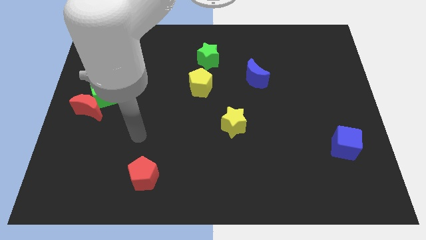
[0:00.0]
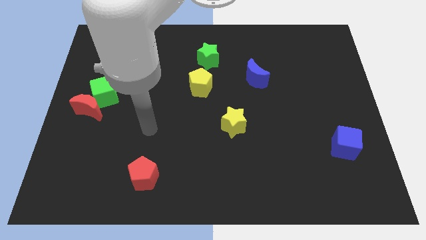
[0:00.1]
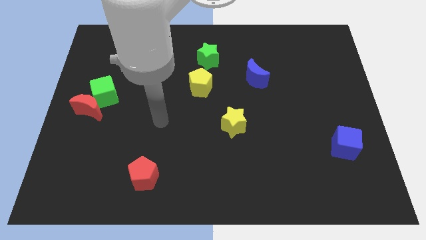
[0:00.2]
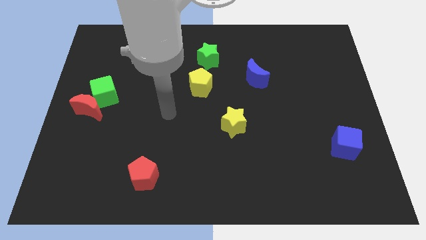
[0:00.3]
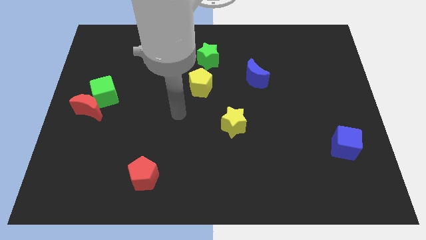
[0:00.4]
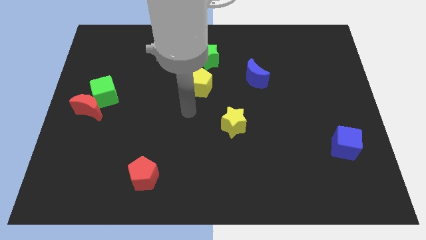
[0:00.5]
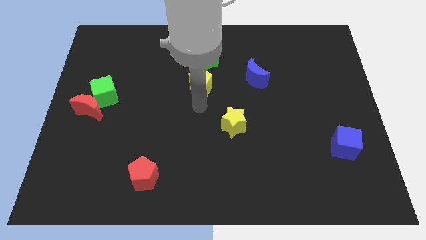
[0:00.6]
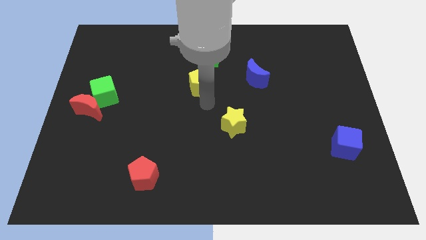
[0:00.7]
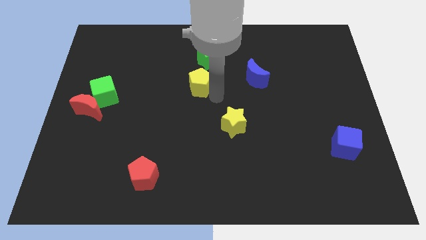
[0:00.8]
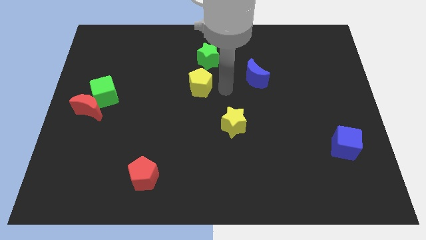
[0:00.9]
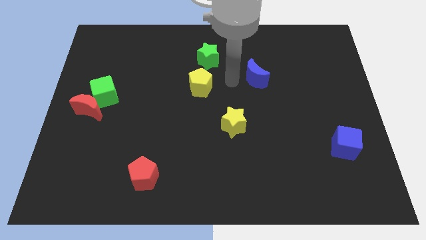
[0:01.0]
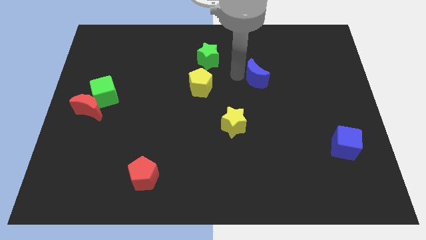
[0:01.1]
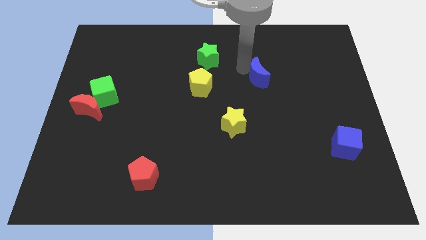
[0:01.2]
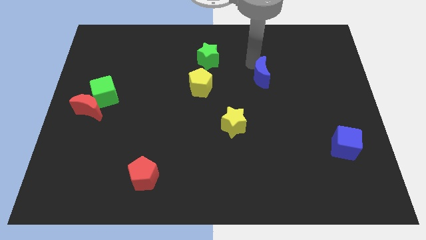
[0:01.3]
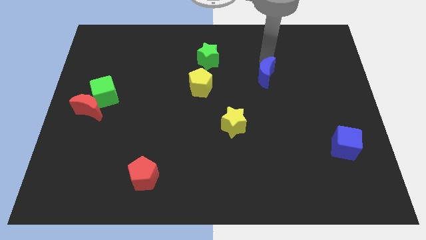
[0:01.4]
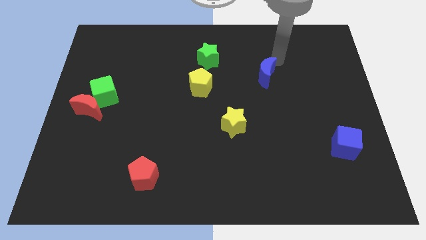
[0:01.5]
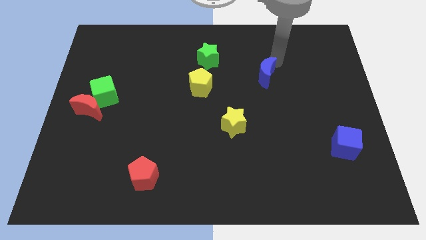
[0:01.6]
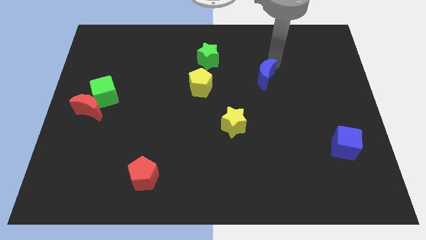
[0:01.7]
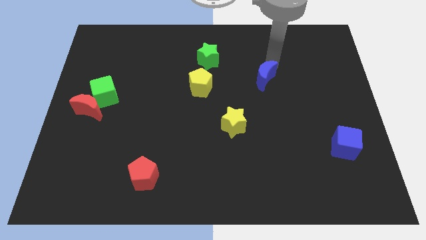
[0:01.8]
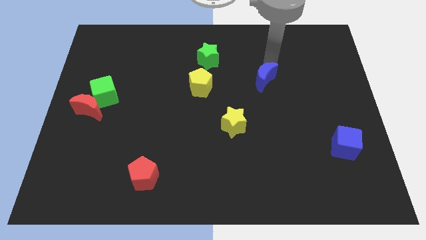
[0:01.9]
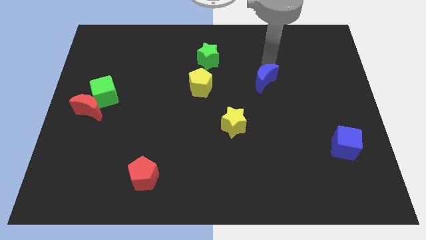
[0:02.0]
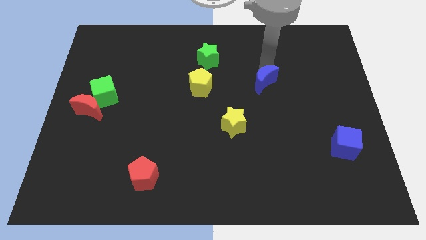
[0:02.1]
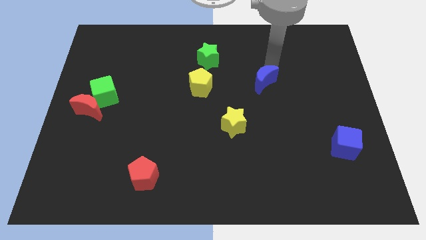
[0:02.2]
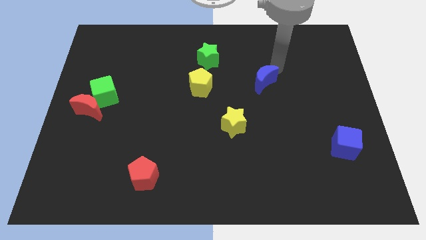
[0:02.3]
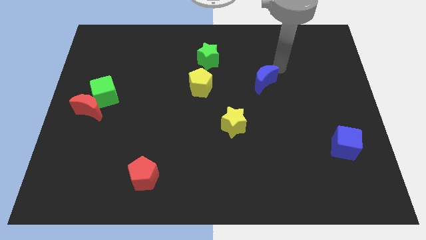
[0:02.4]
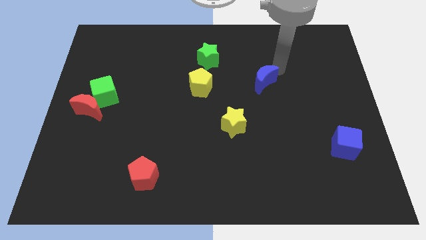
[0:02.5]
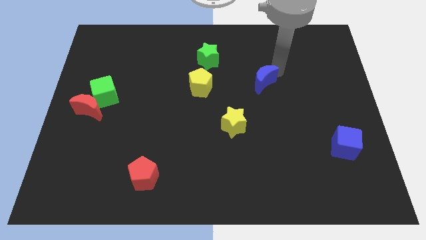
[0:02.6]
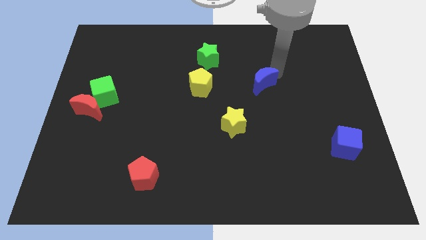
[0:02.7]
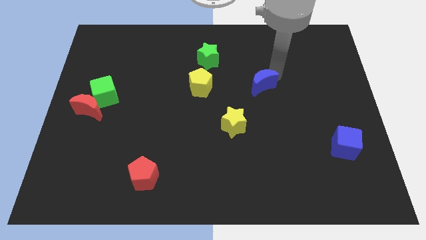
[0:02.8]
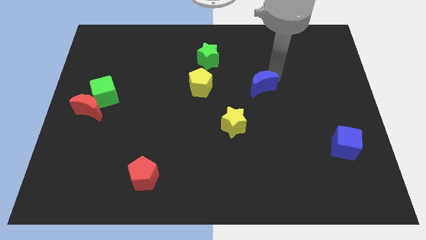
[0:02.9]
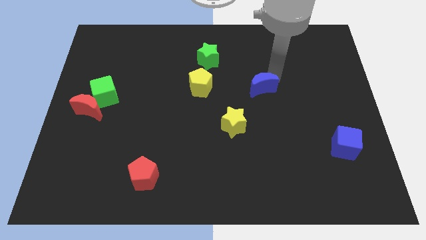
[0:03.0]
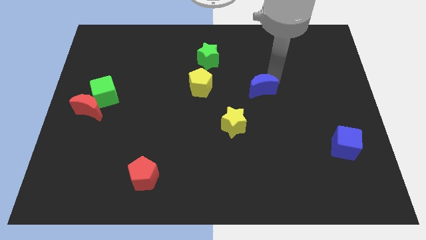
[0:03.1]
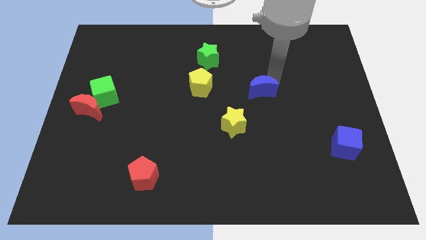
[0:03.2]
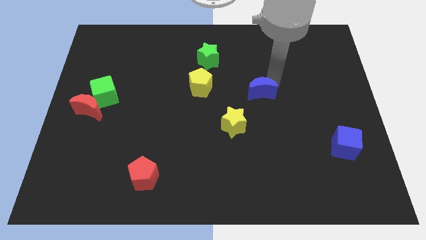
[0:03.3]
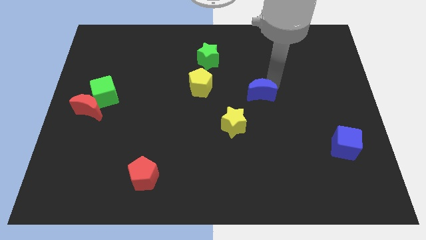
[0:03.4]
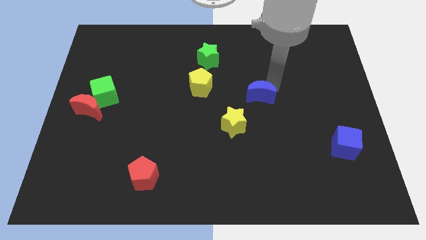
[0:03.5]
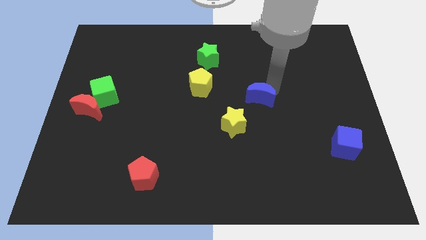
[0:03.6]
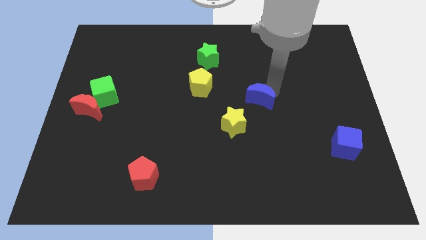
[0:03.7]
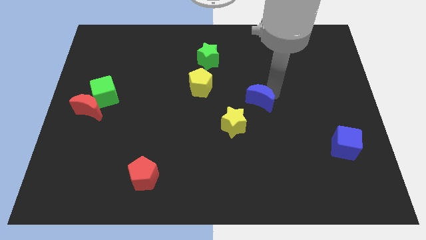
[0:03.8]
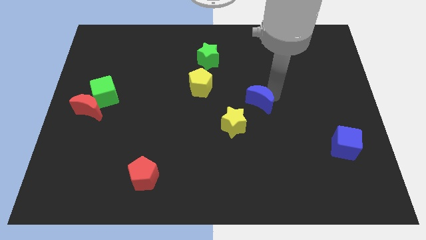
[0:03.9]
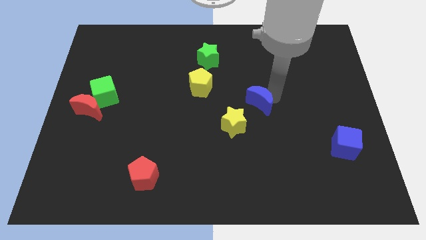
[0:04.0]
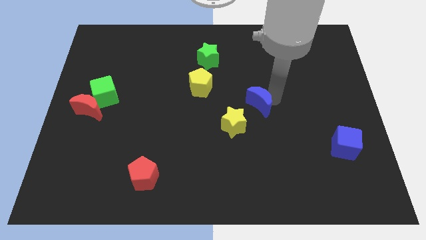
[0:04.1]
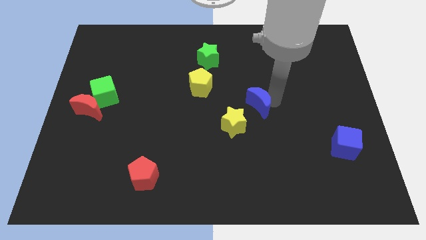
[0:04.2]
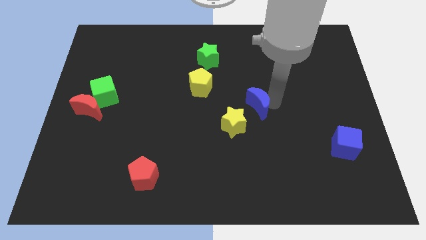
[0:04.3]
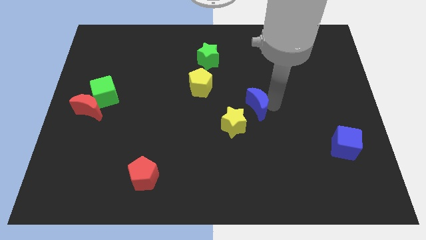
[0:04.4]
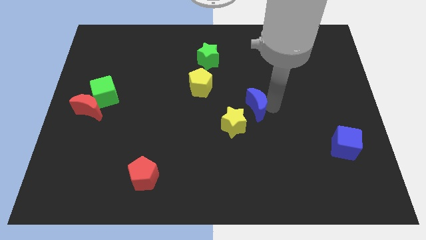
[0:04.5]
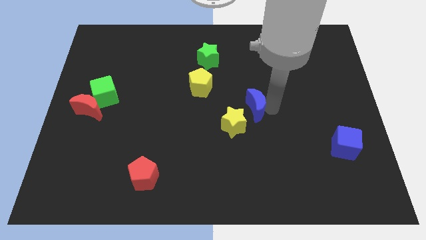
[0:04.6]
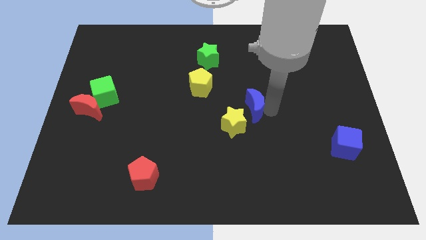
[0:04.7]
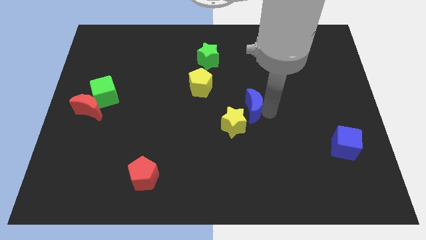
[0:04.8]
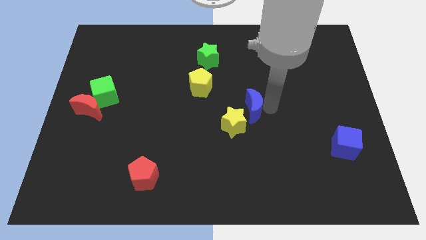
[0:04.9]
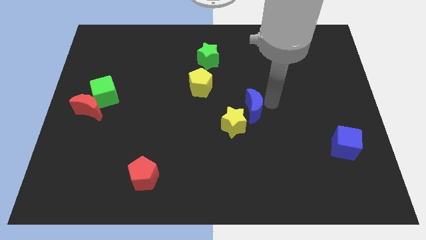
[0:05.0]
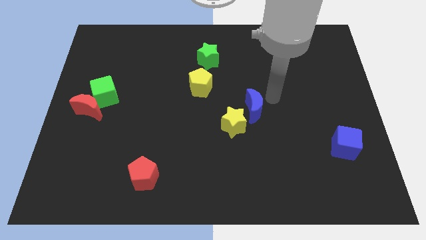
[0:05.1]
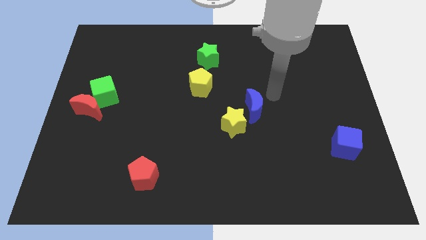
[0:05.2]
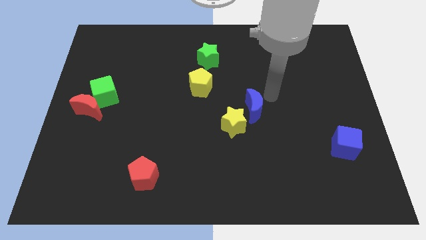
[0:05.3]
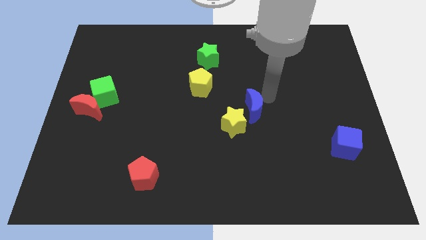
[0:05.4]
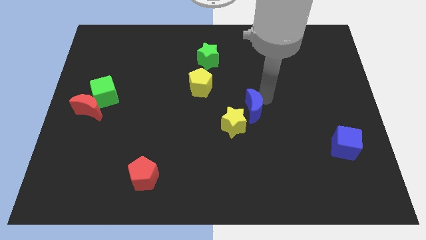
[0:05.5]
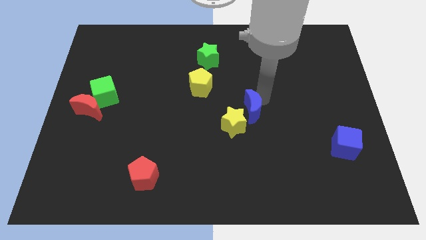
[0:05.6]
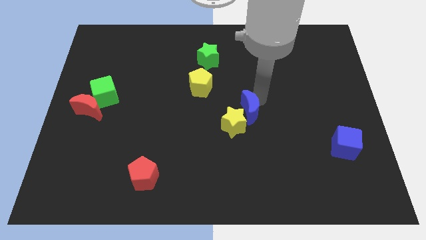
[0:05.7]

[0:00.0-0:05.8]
move the blue moon next to the yellow star

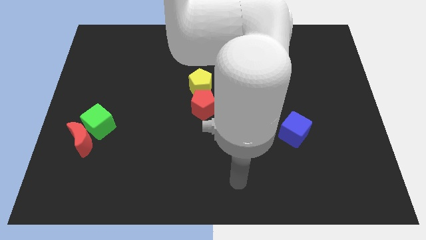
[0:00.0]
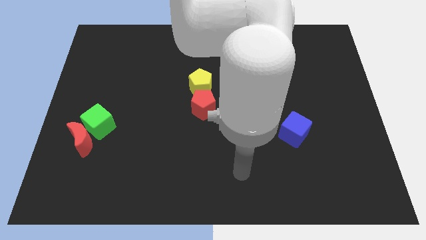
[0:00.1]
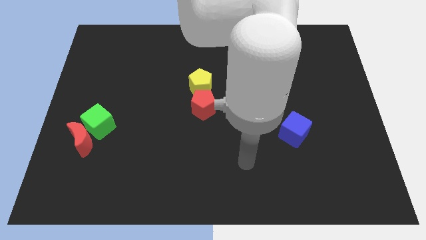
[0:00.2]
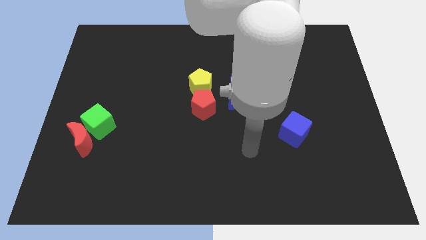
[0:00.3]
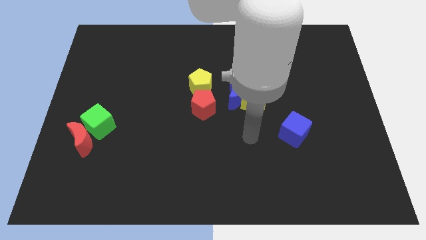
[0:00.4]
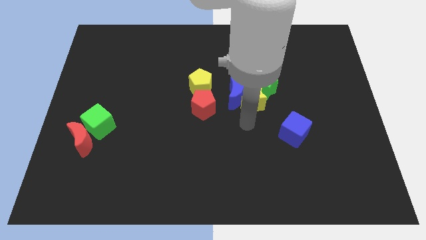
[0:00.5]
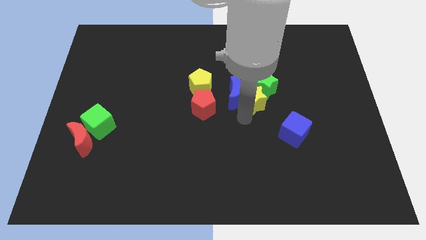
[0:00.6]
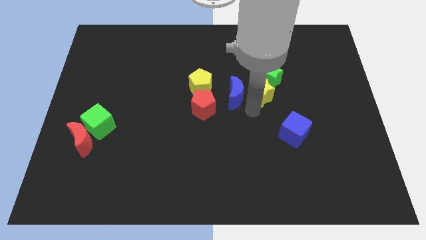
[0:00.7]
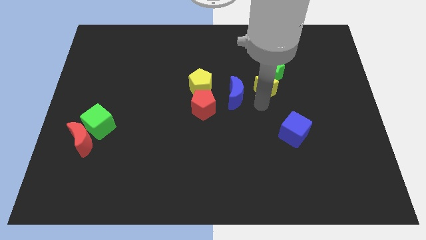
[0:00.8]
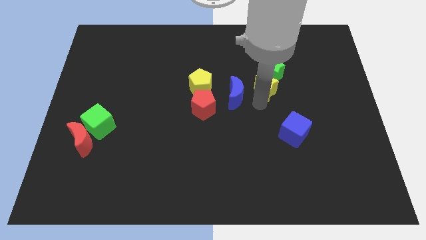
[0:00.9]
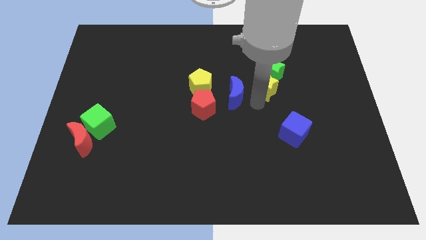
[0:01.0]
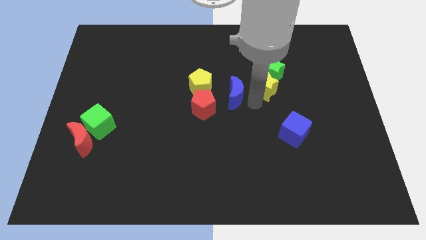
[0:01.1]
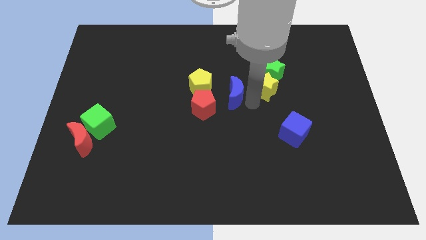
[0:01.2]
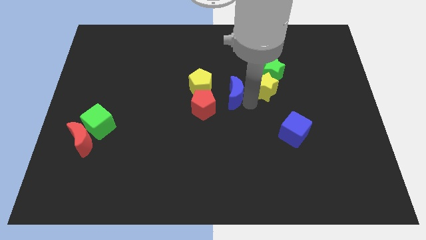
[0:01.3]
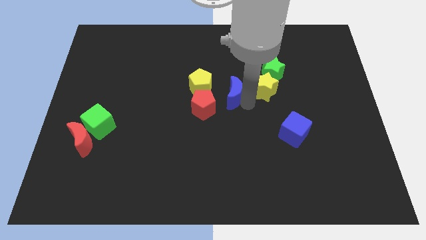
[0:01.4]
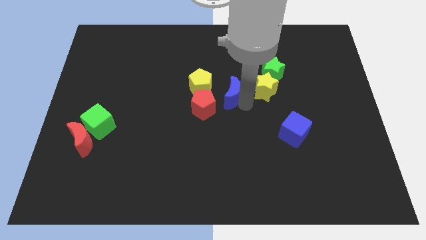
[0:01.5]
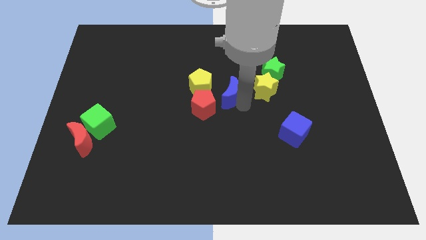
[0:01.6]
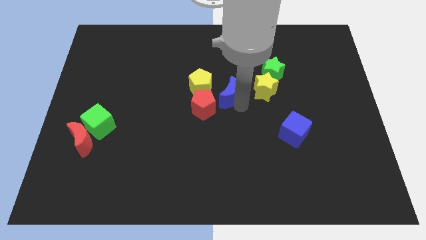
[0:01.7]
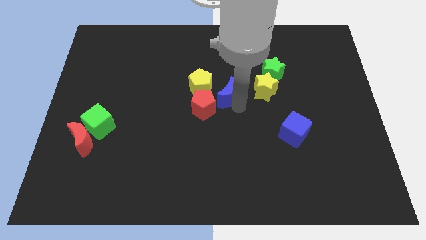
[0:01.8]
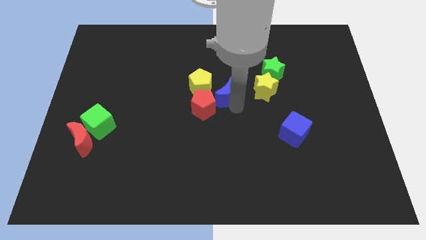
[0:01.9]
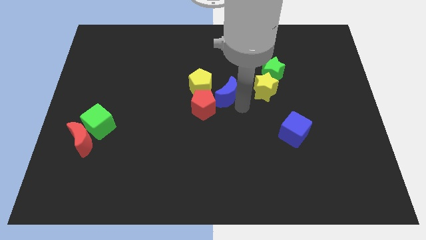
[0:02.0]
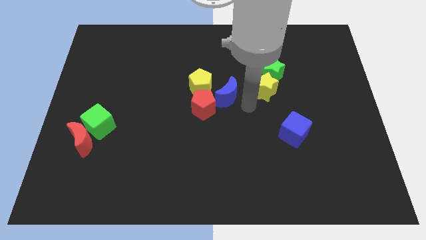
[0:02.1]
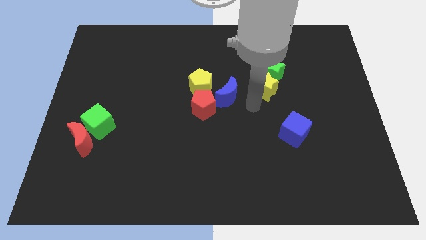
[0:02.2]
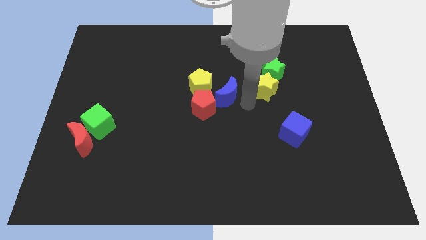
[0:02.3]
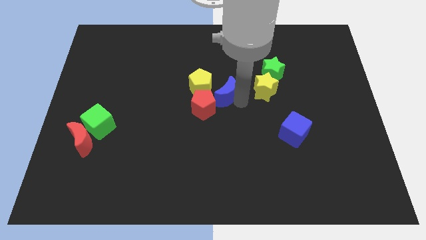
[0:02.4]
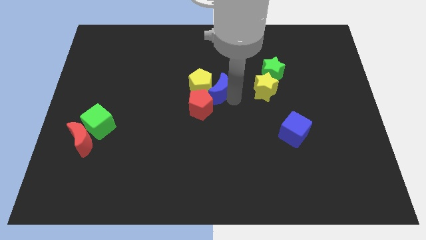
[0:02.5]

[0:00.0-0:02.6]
slide the blue moon close to the yellow pentagon
